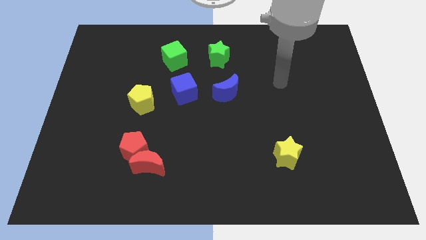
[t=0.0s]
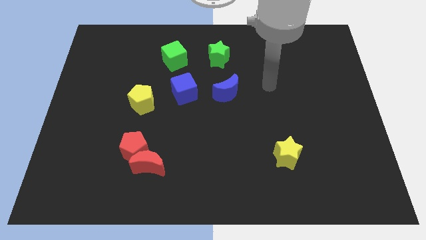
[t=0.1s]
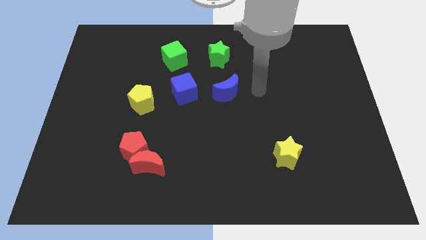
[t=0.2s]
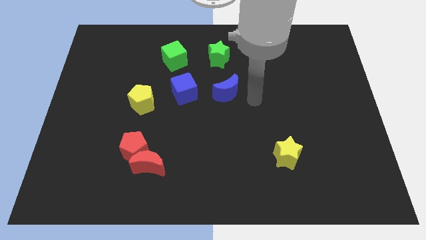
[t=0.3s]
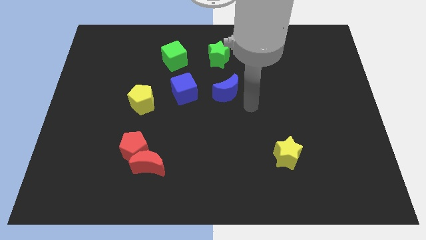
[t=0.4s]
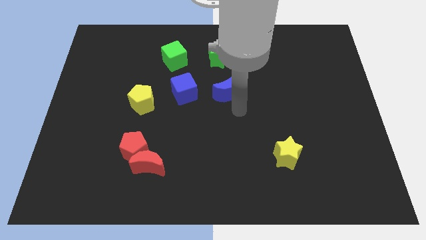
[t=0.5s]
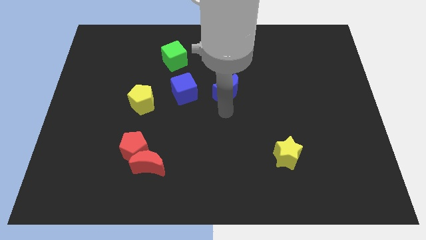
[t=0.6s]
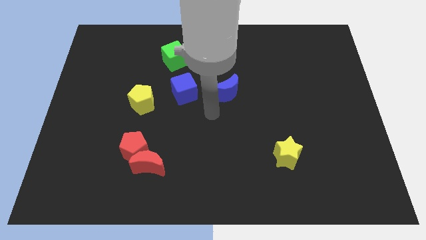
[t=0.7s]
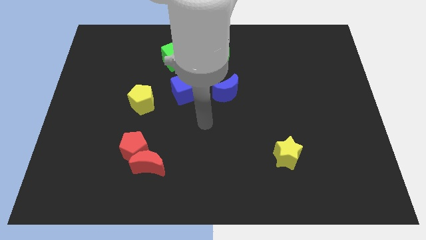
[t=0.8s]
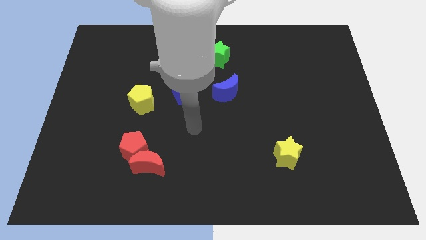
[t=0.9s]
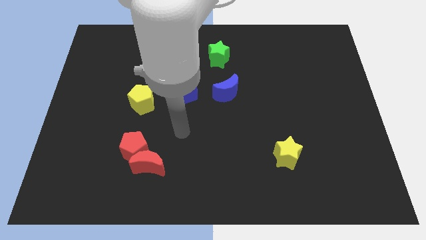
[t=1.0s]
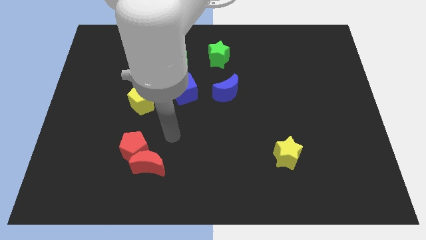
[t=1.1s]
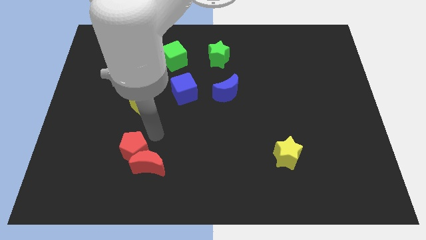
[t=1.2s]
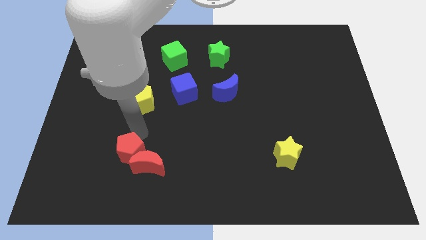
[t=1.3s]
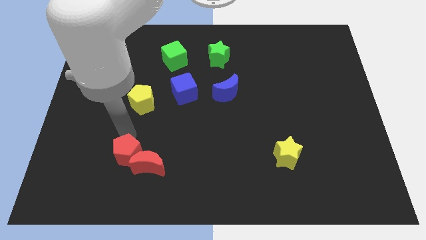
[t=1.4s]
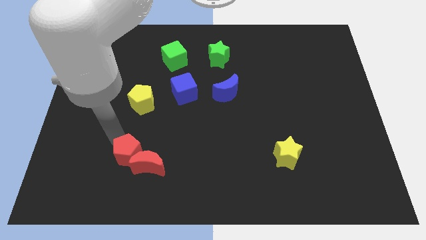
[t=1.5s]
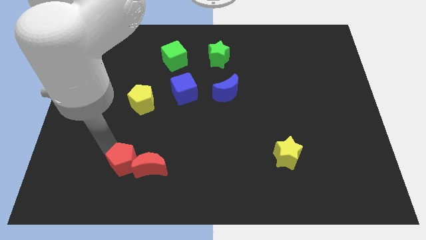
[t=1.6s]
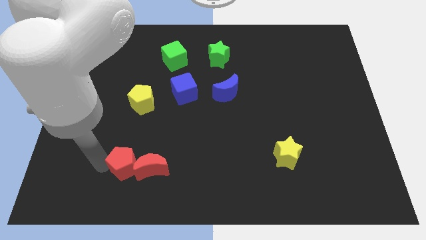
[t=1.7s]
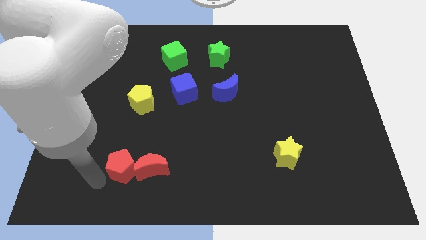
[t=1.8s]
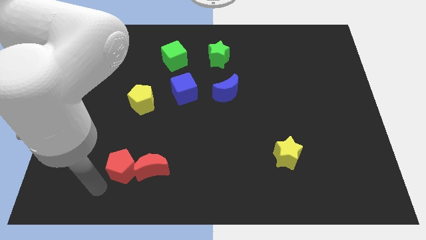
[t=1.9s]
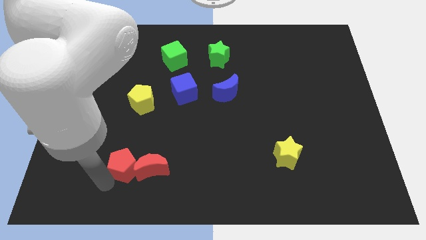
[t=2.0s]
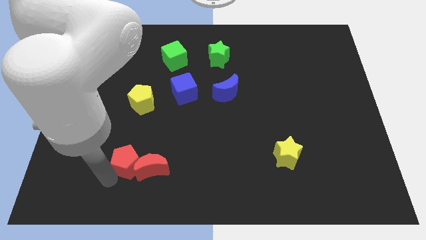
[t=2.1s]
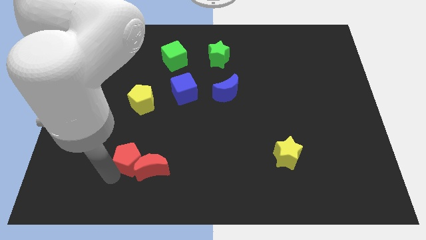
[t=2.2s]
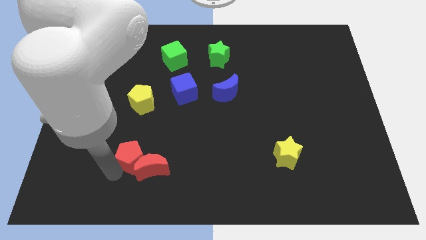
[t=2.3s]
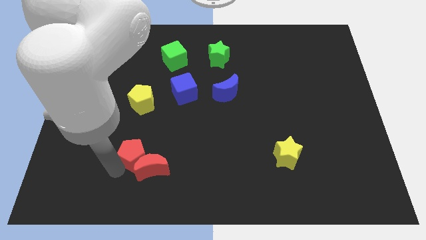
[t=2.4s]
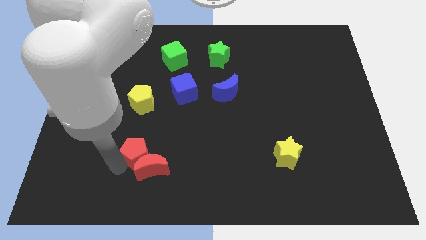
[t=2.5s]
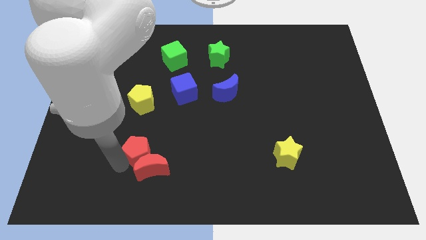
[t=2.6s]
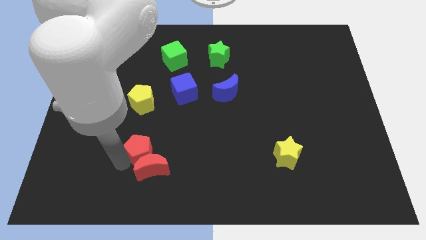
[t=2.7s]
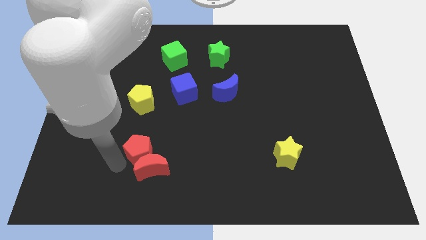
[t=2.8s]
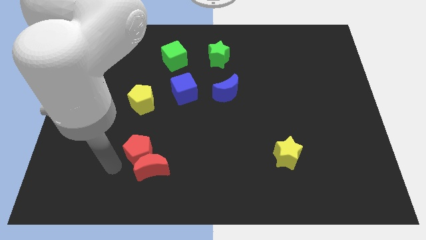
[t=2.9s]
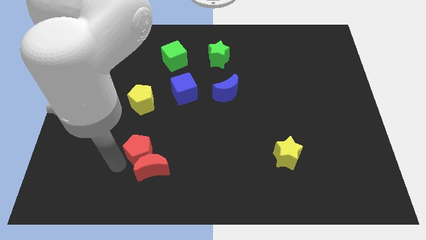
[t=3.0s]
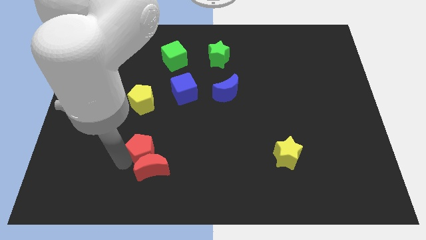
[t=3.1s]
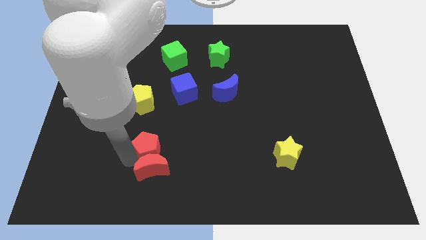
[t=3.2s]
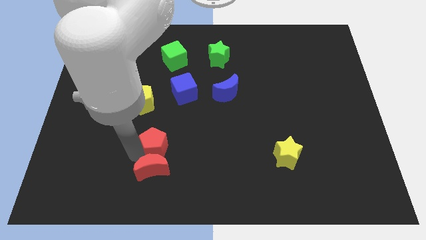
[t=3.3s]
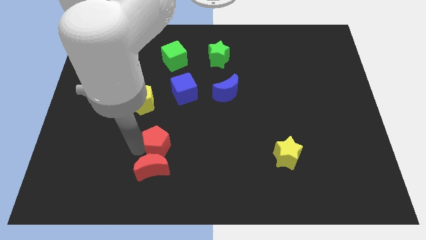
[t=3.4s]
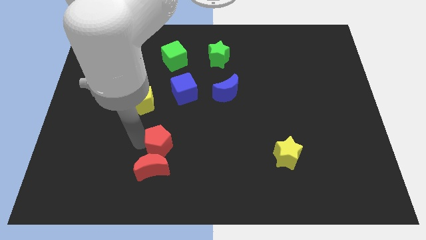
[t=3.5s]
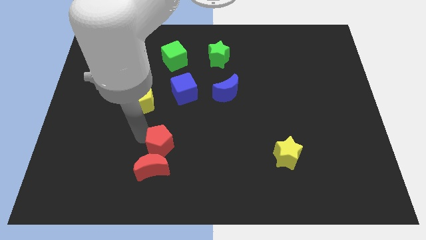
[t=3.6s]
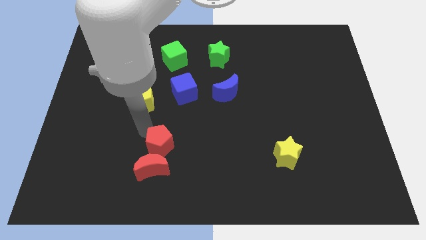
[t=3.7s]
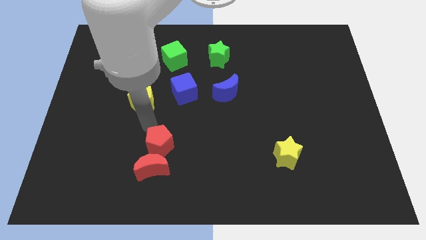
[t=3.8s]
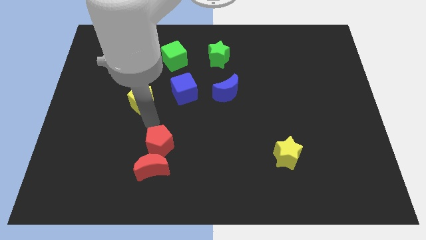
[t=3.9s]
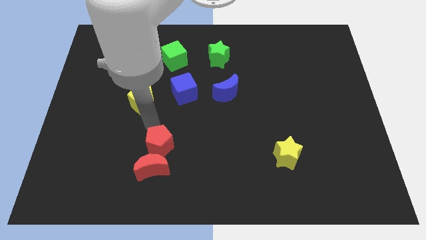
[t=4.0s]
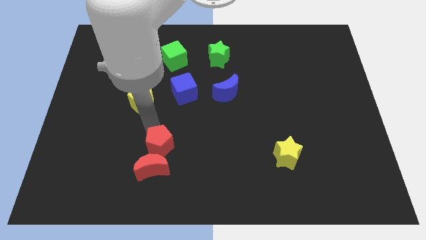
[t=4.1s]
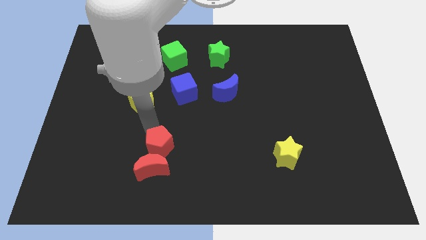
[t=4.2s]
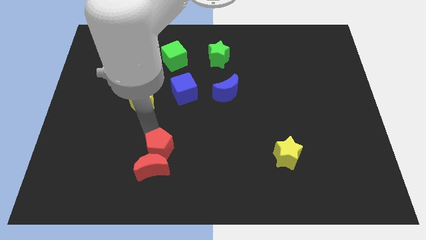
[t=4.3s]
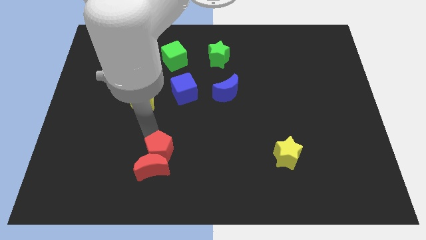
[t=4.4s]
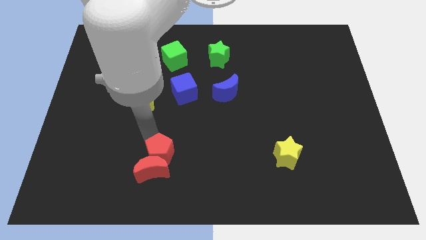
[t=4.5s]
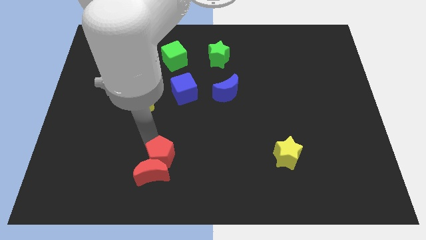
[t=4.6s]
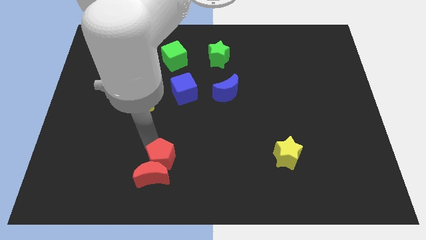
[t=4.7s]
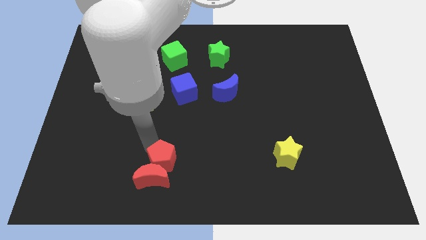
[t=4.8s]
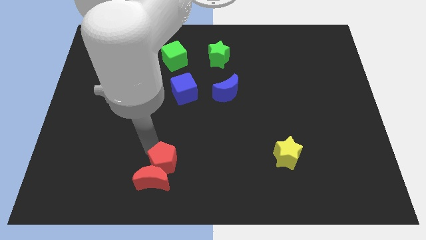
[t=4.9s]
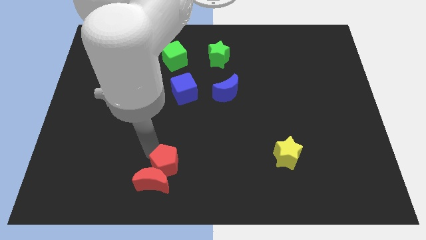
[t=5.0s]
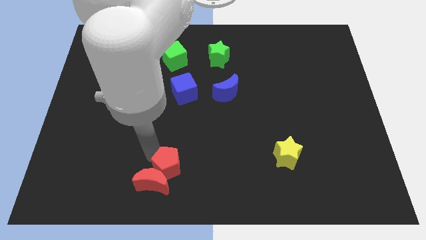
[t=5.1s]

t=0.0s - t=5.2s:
move the red pentagon to the bottom
